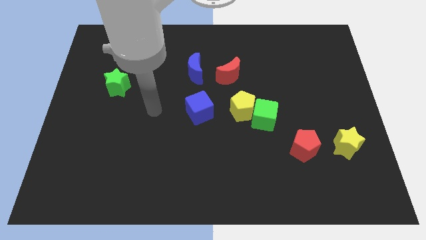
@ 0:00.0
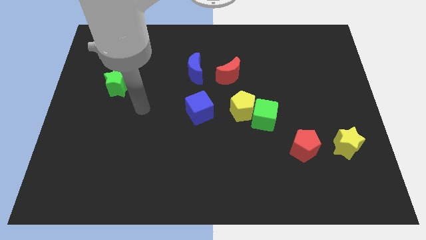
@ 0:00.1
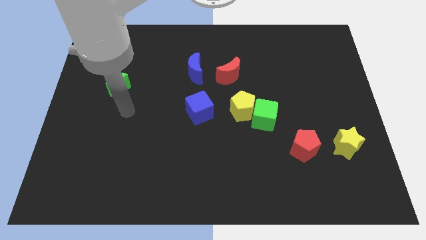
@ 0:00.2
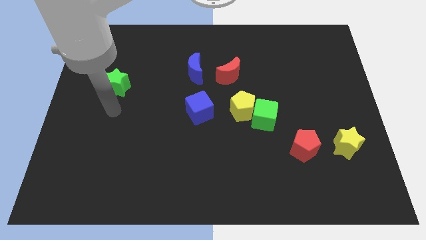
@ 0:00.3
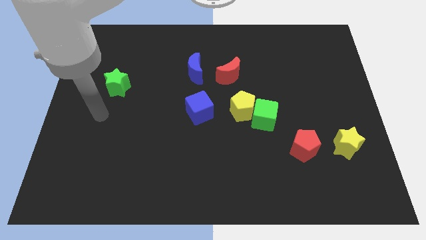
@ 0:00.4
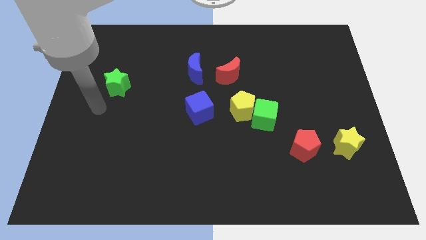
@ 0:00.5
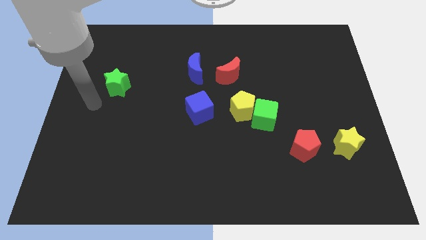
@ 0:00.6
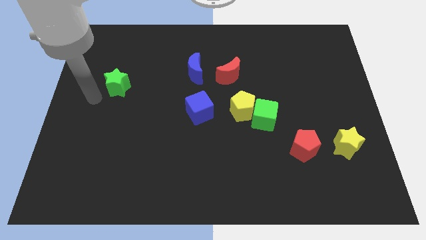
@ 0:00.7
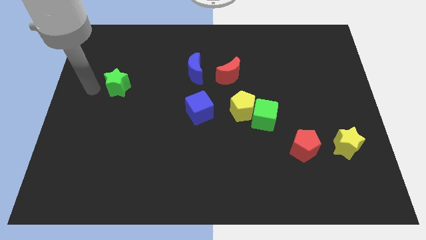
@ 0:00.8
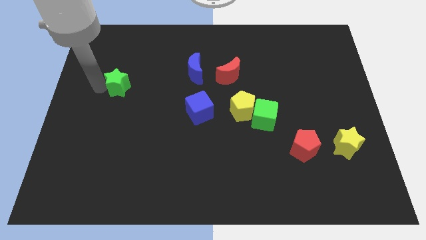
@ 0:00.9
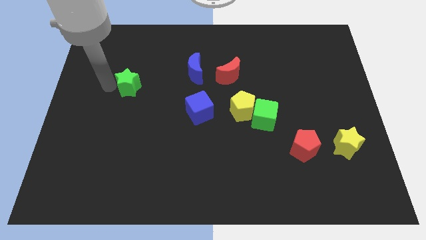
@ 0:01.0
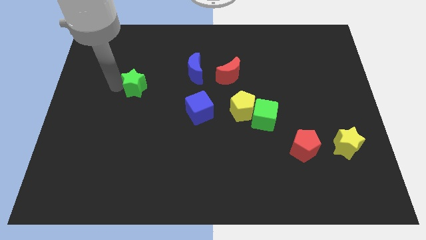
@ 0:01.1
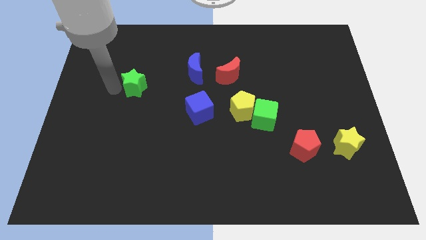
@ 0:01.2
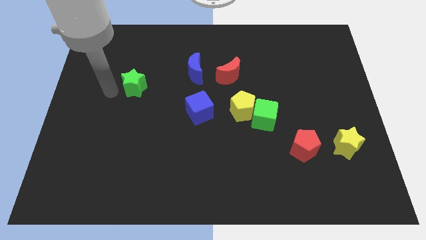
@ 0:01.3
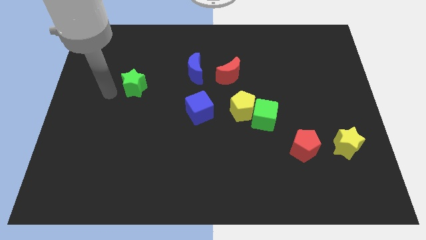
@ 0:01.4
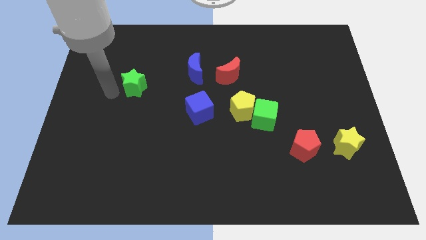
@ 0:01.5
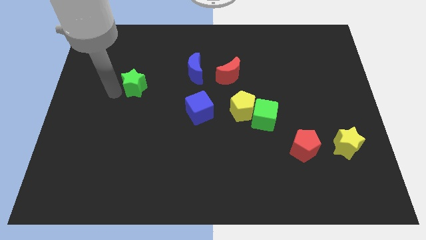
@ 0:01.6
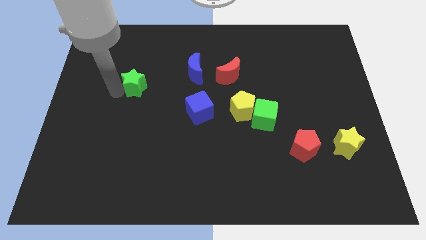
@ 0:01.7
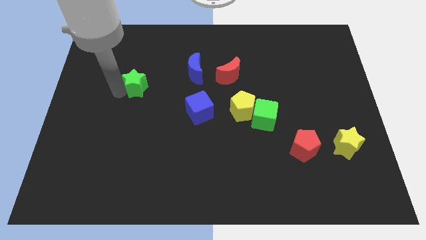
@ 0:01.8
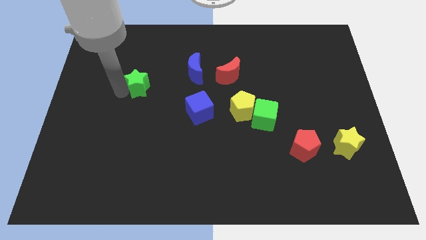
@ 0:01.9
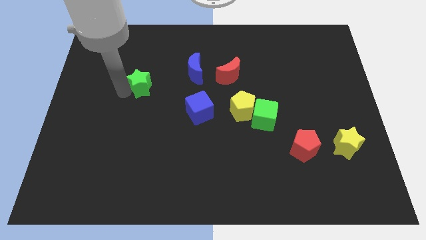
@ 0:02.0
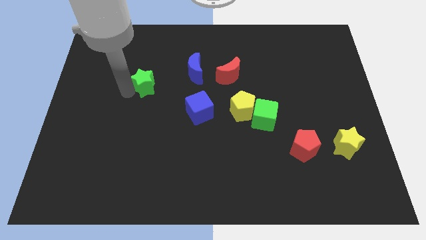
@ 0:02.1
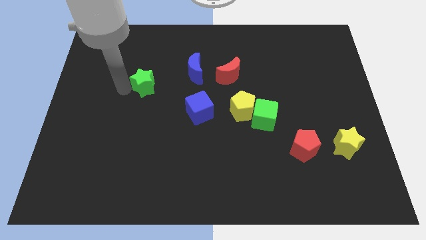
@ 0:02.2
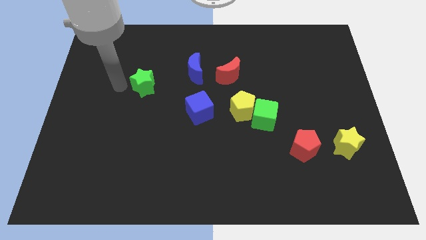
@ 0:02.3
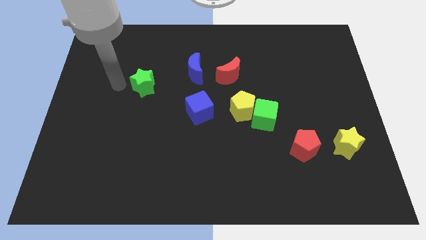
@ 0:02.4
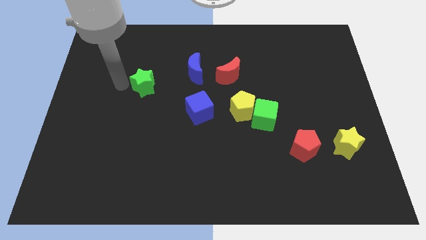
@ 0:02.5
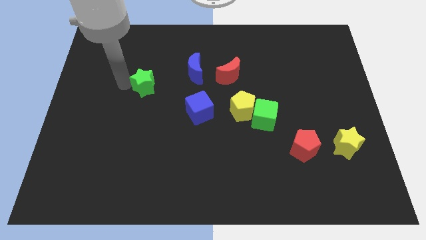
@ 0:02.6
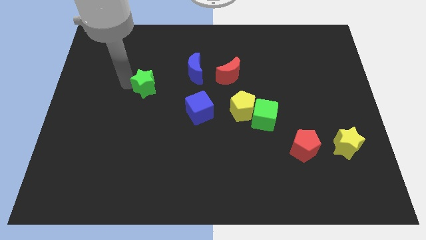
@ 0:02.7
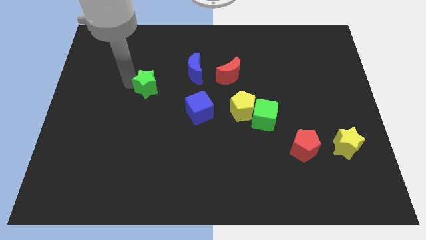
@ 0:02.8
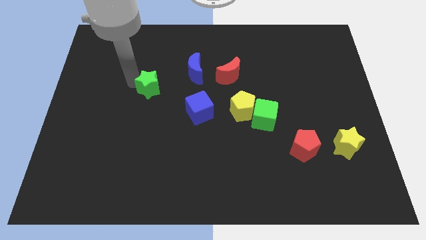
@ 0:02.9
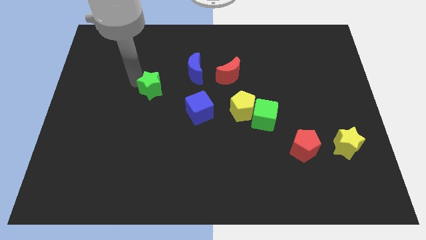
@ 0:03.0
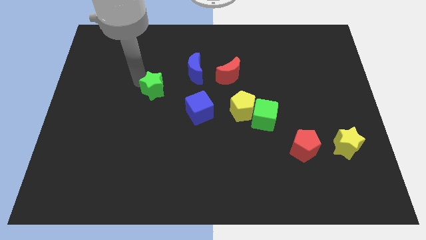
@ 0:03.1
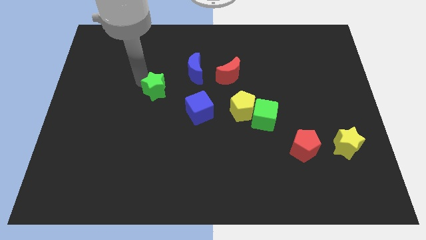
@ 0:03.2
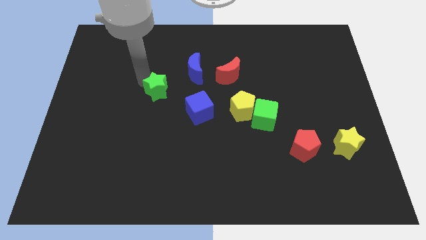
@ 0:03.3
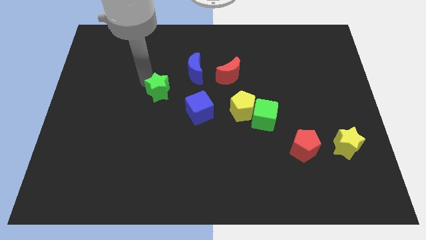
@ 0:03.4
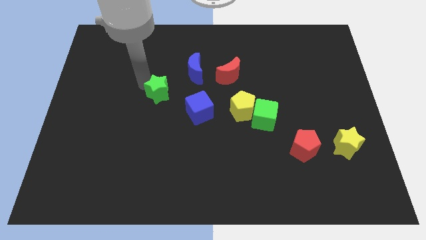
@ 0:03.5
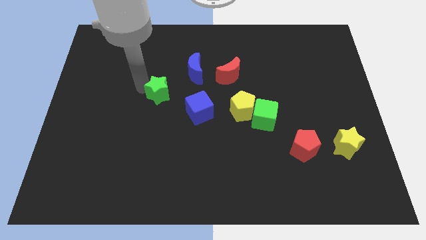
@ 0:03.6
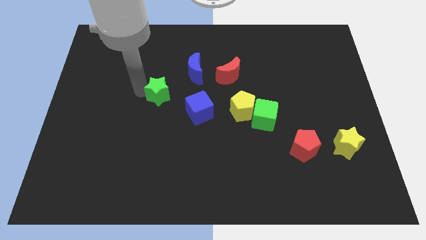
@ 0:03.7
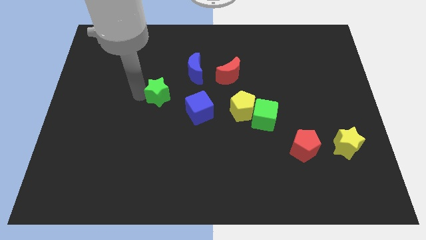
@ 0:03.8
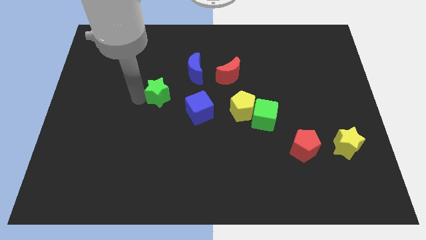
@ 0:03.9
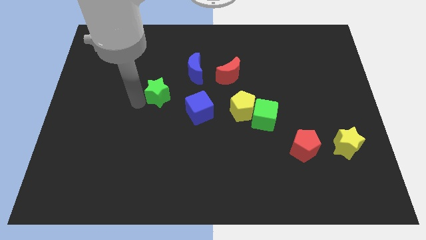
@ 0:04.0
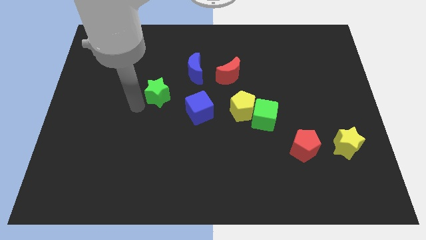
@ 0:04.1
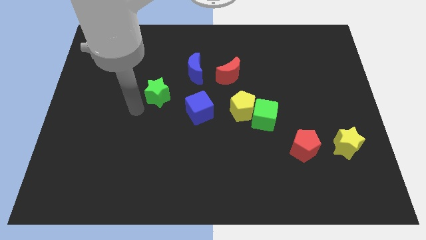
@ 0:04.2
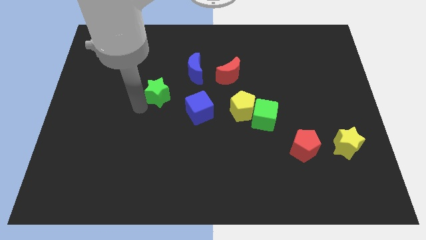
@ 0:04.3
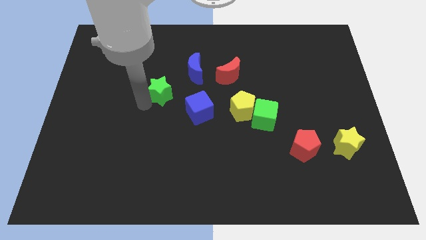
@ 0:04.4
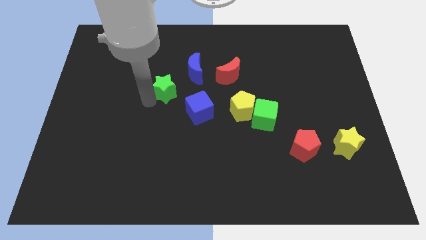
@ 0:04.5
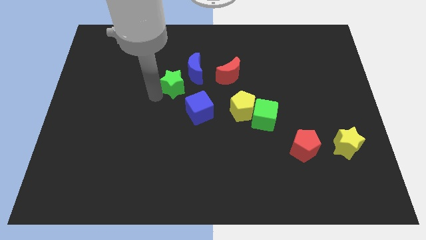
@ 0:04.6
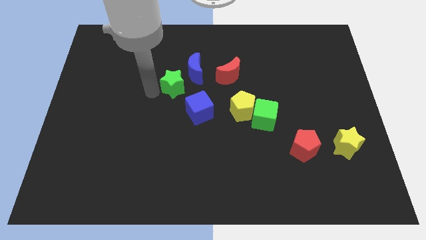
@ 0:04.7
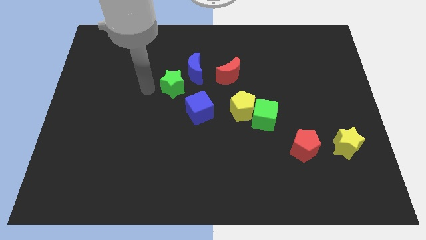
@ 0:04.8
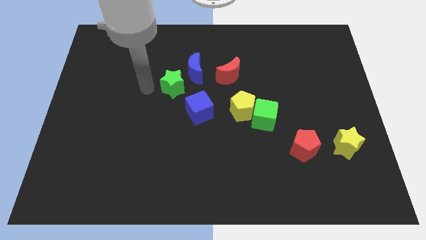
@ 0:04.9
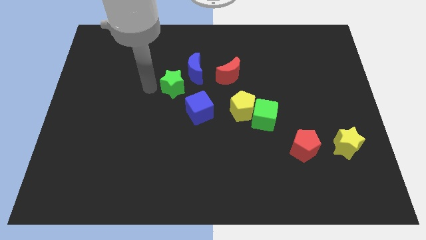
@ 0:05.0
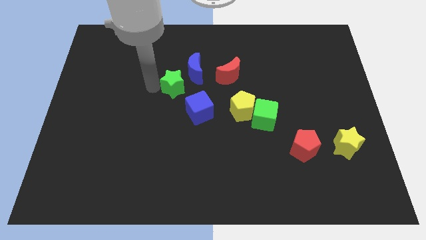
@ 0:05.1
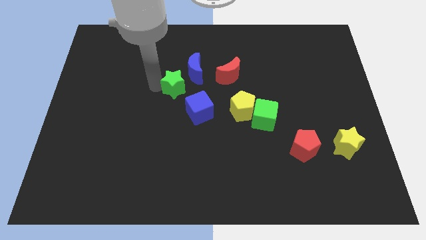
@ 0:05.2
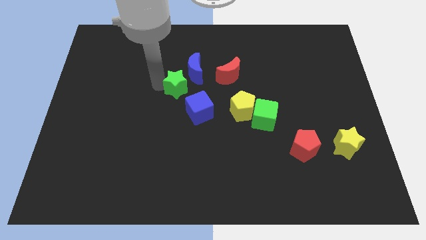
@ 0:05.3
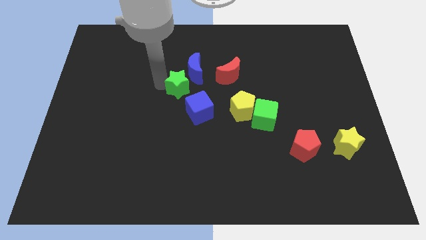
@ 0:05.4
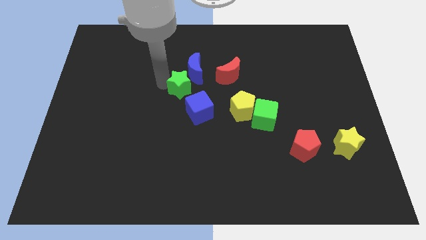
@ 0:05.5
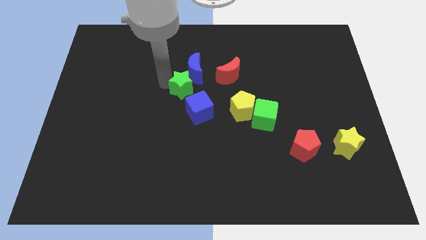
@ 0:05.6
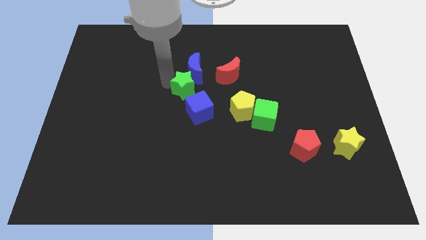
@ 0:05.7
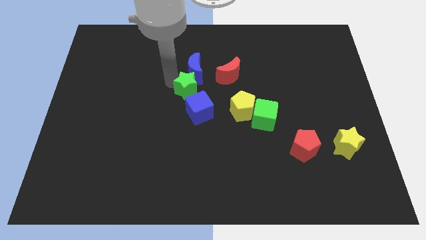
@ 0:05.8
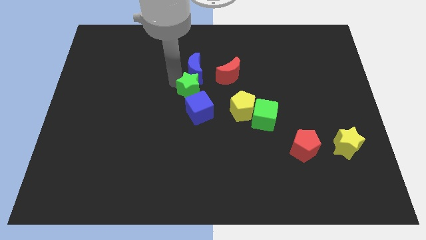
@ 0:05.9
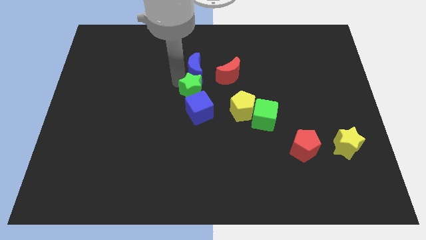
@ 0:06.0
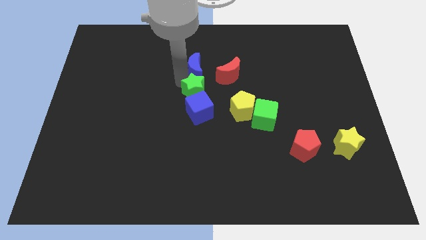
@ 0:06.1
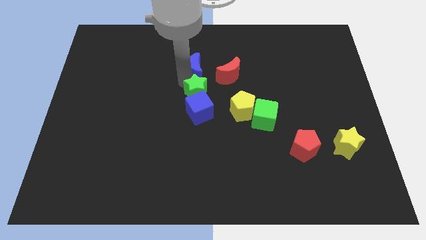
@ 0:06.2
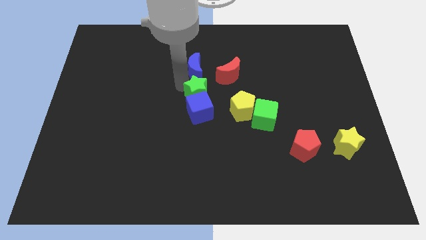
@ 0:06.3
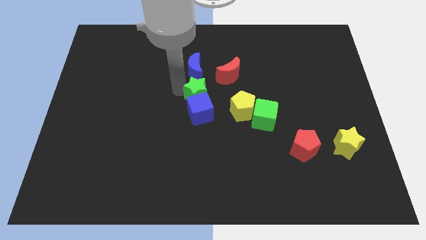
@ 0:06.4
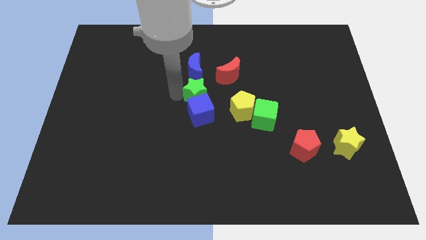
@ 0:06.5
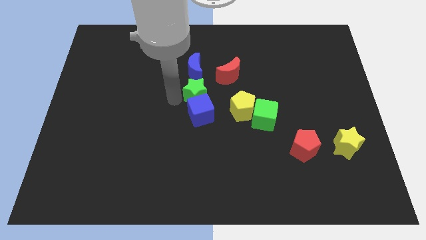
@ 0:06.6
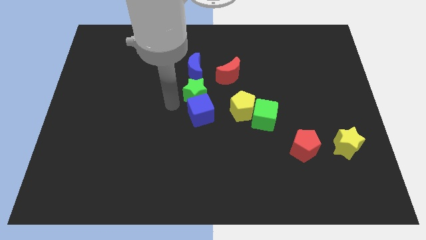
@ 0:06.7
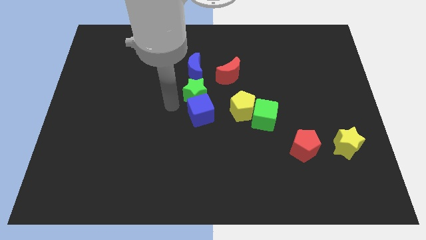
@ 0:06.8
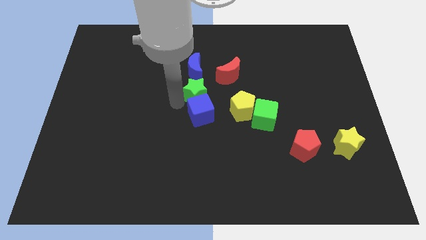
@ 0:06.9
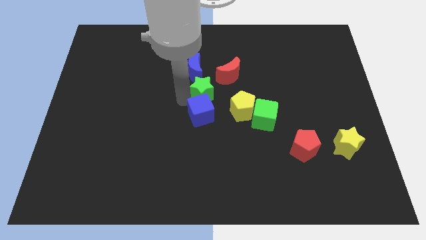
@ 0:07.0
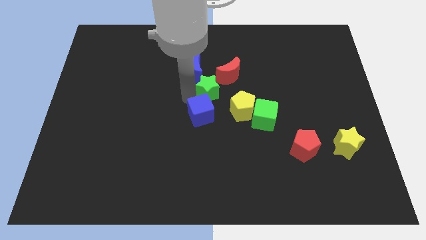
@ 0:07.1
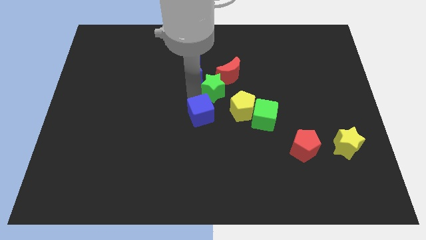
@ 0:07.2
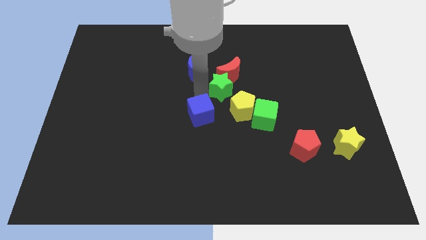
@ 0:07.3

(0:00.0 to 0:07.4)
push the green star next to the red moon
